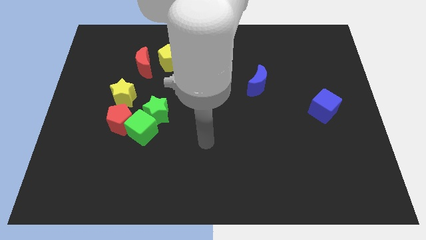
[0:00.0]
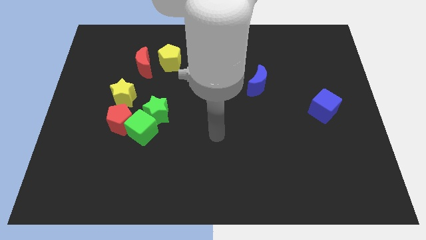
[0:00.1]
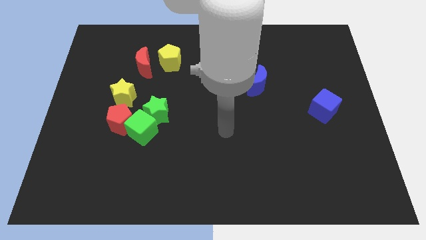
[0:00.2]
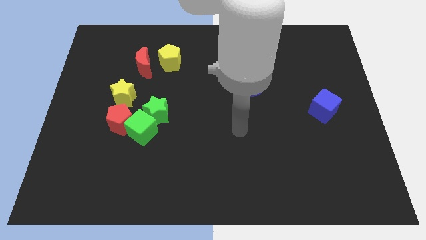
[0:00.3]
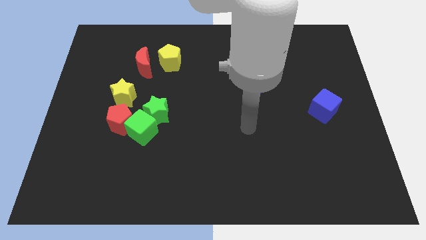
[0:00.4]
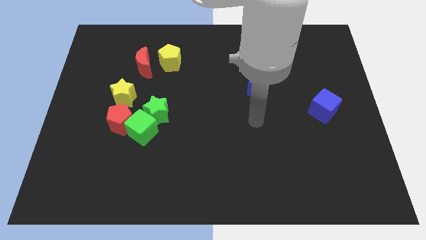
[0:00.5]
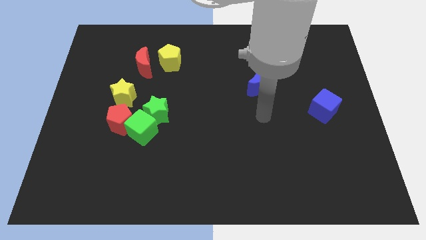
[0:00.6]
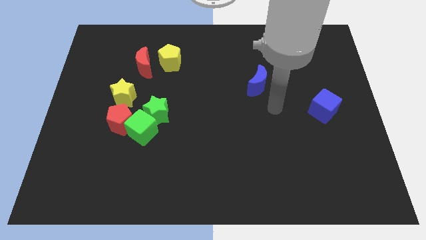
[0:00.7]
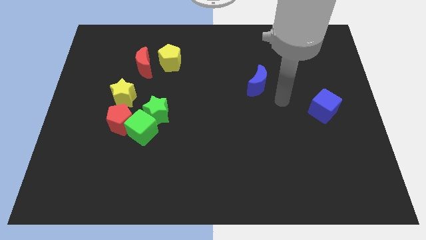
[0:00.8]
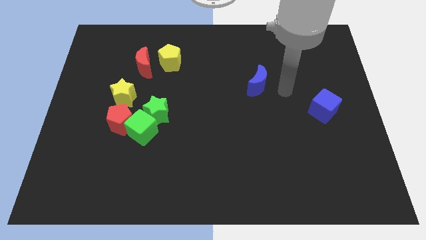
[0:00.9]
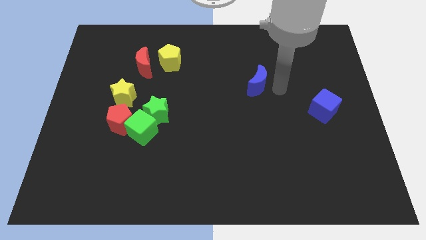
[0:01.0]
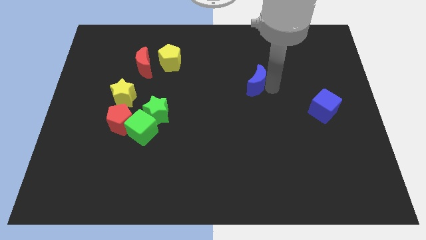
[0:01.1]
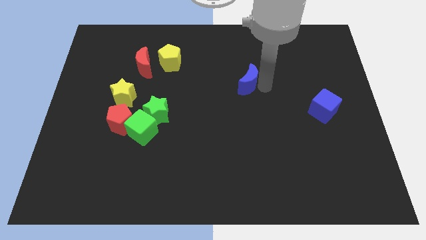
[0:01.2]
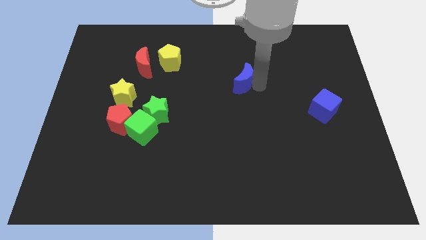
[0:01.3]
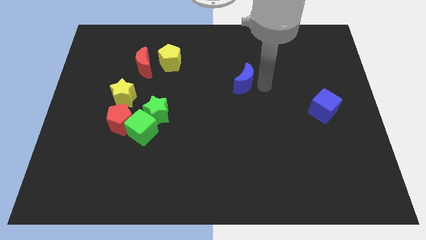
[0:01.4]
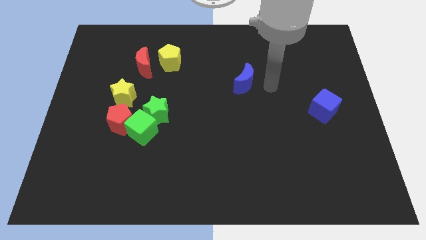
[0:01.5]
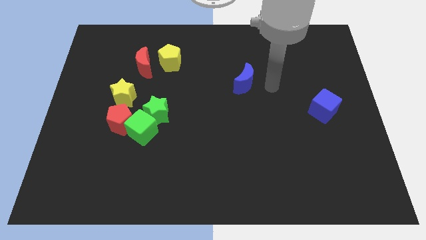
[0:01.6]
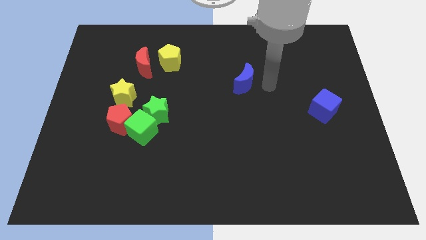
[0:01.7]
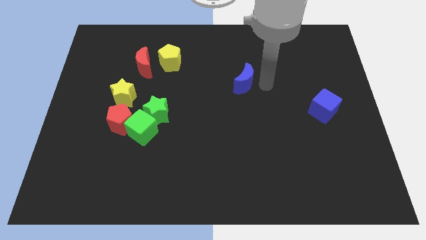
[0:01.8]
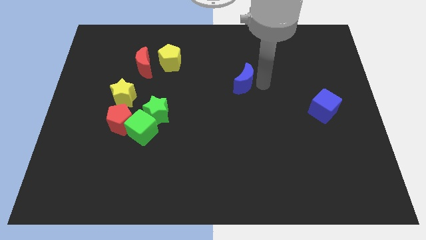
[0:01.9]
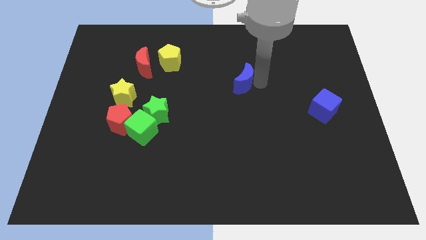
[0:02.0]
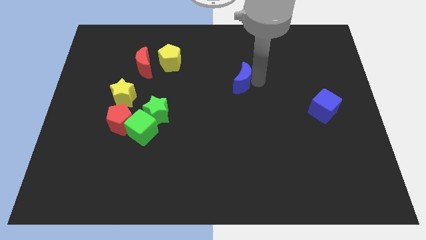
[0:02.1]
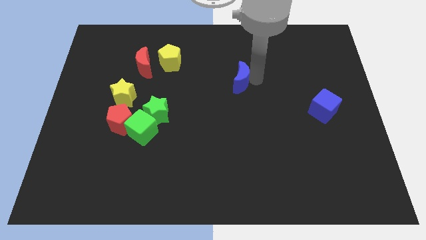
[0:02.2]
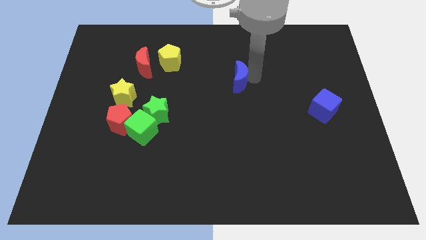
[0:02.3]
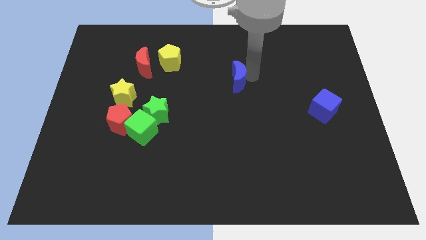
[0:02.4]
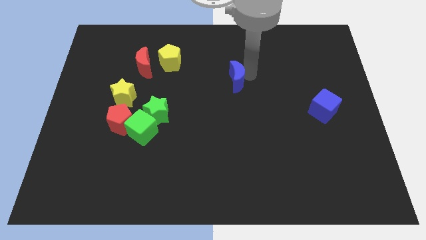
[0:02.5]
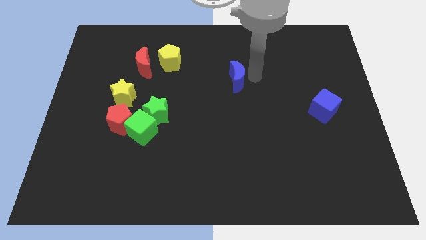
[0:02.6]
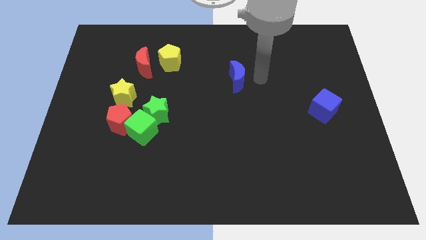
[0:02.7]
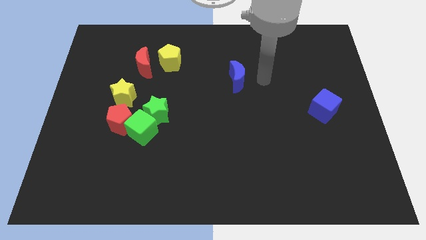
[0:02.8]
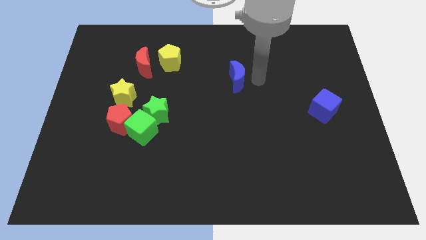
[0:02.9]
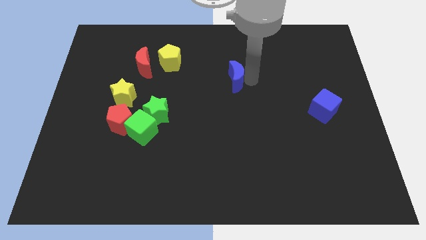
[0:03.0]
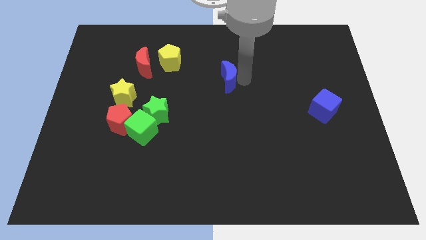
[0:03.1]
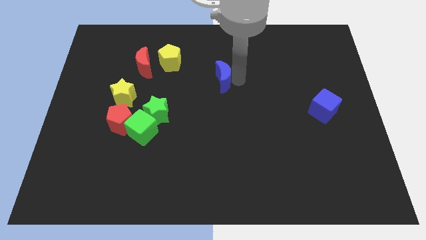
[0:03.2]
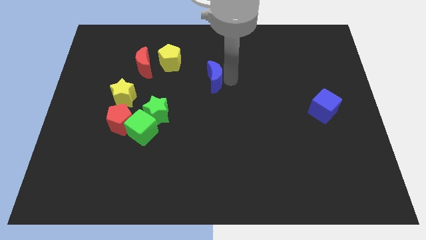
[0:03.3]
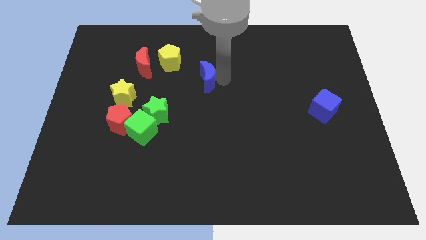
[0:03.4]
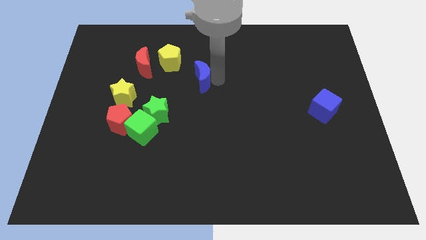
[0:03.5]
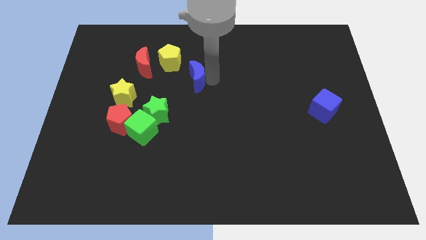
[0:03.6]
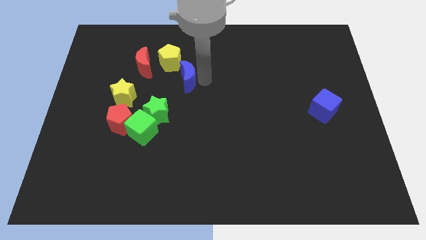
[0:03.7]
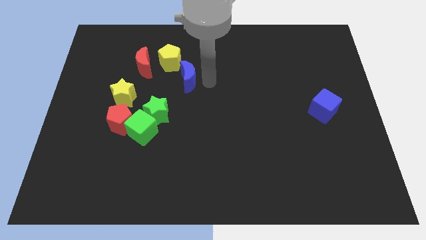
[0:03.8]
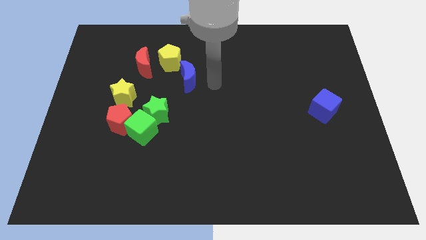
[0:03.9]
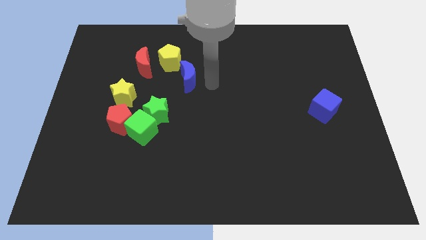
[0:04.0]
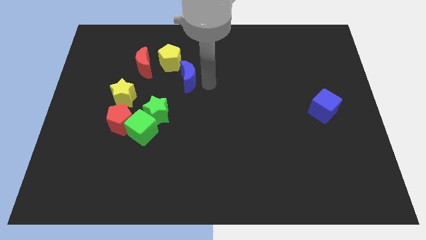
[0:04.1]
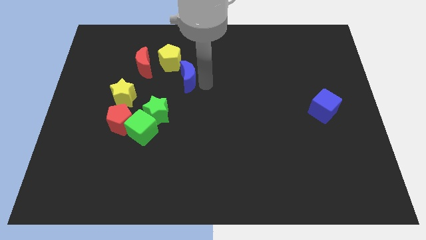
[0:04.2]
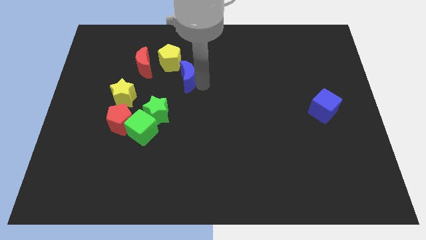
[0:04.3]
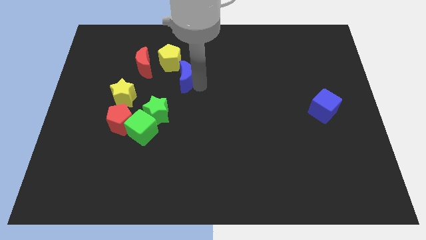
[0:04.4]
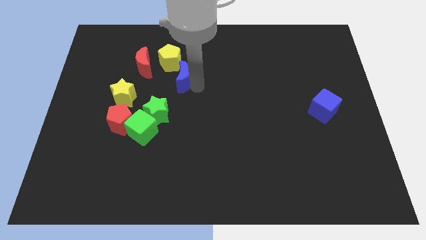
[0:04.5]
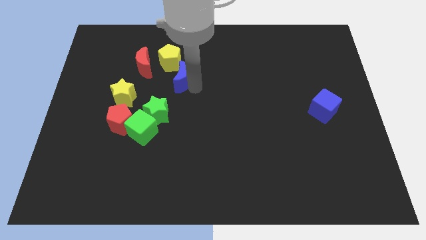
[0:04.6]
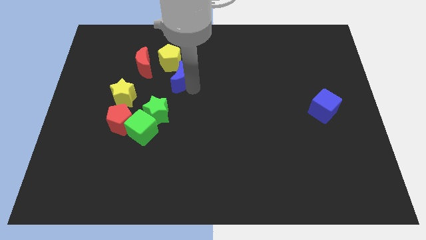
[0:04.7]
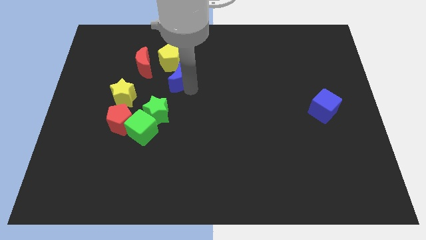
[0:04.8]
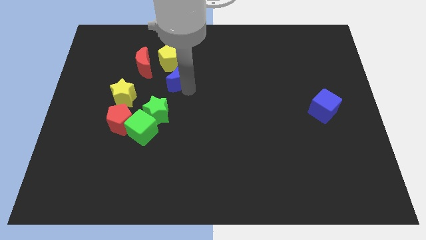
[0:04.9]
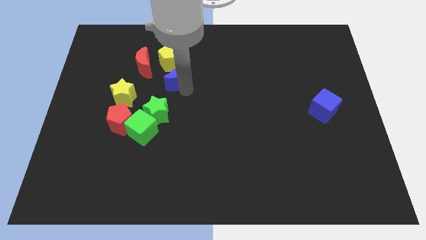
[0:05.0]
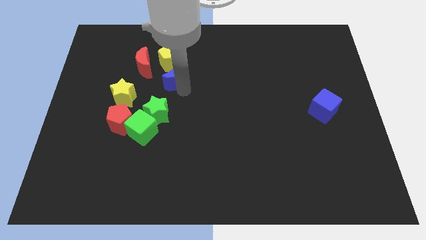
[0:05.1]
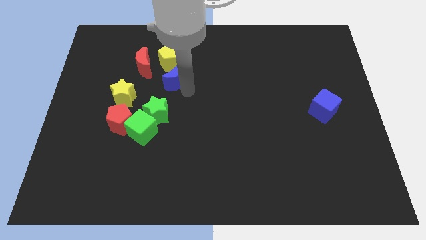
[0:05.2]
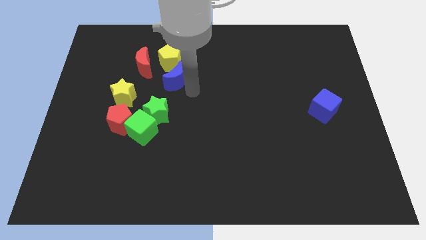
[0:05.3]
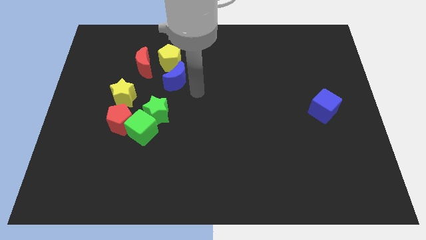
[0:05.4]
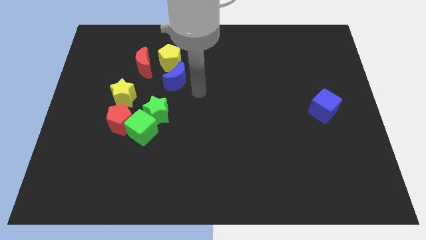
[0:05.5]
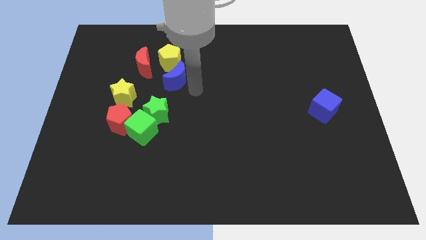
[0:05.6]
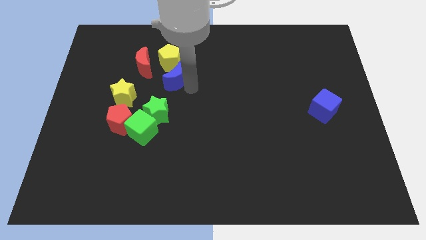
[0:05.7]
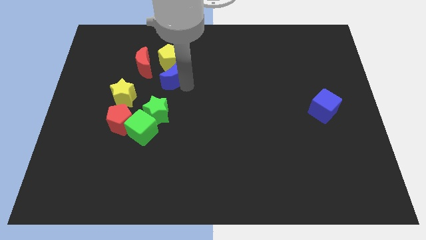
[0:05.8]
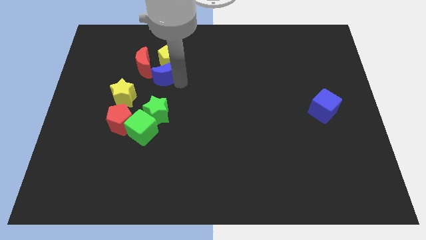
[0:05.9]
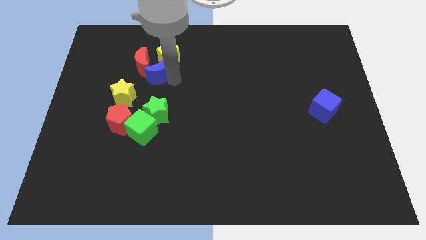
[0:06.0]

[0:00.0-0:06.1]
put the blue moon next to the red moon

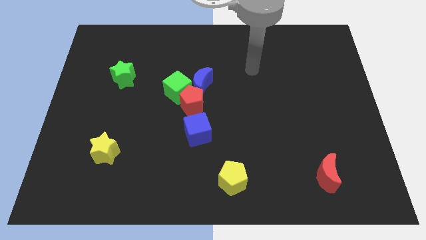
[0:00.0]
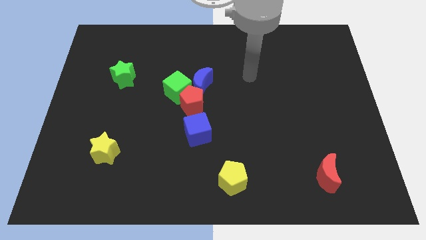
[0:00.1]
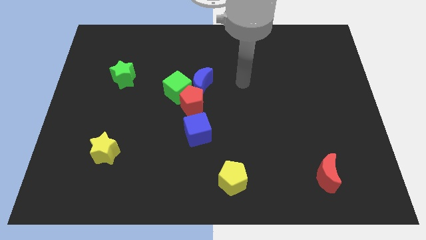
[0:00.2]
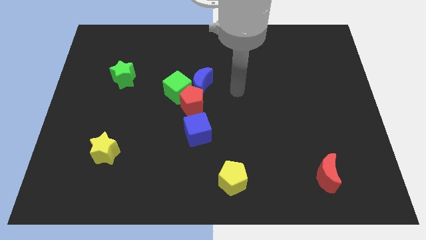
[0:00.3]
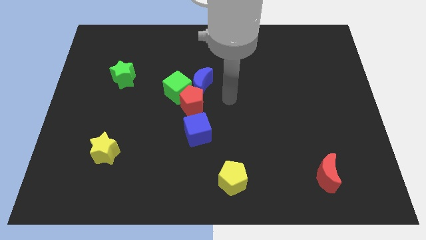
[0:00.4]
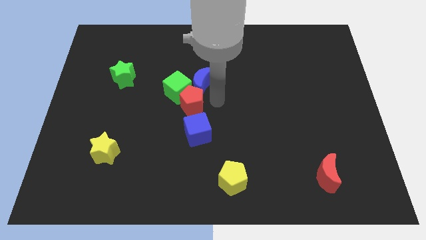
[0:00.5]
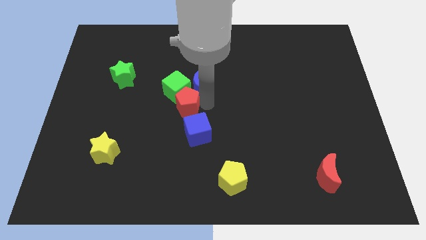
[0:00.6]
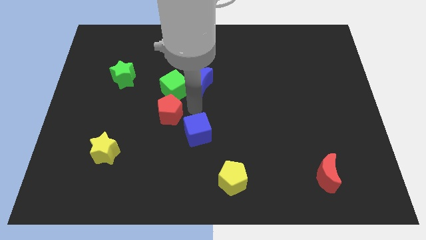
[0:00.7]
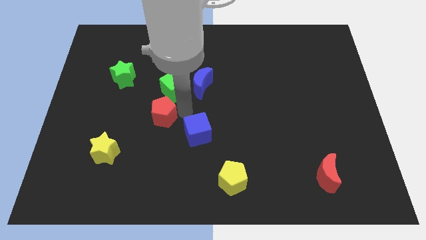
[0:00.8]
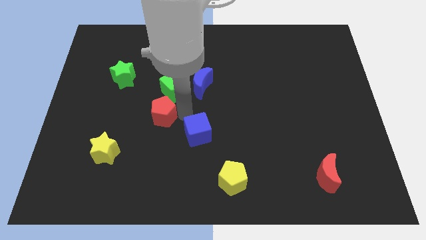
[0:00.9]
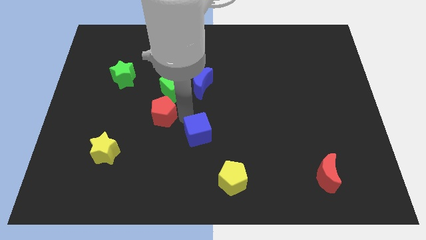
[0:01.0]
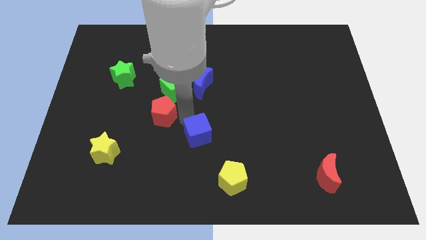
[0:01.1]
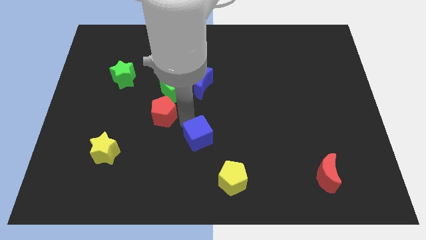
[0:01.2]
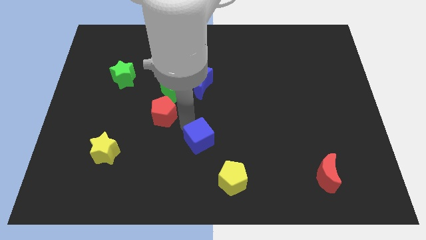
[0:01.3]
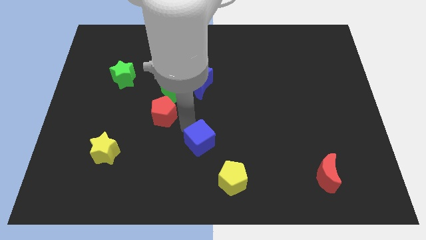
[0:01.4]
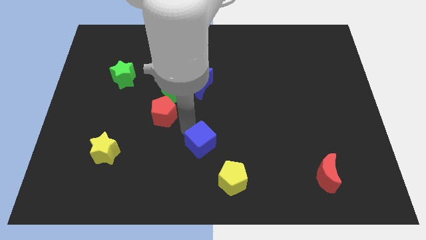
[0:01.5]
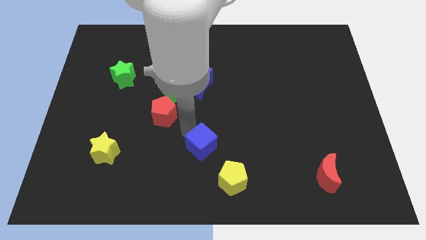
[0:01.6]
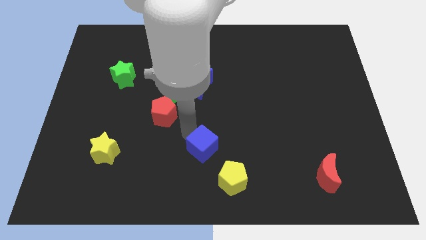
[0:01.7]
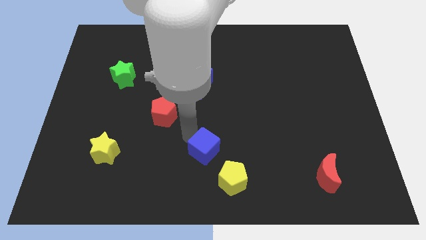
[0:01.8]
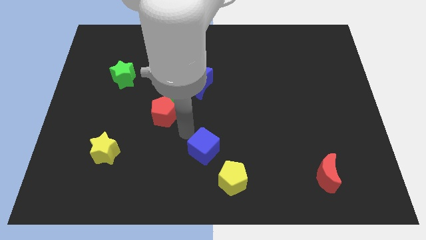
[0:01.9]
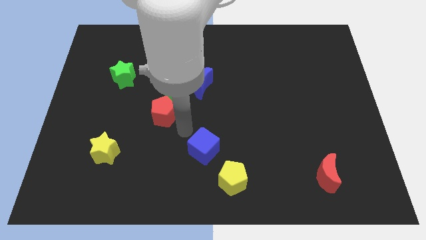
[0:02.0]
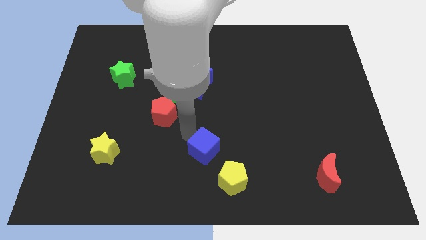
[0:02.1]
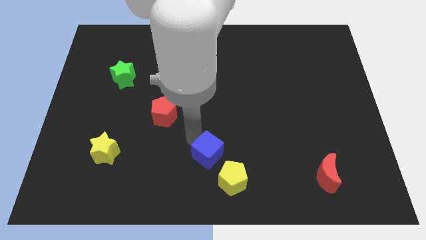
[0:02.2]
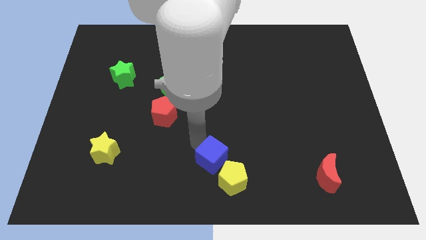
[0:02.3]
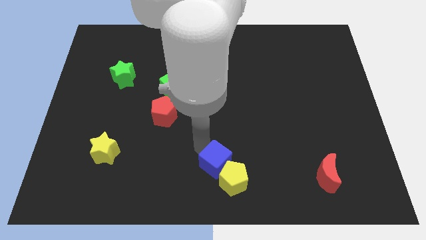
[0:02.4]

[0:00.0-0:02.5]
put the blue cube close to the yellow pentagon
